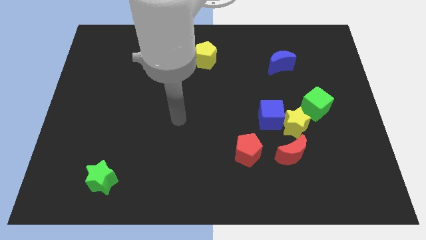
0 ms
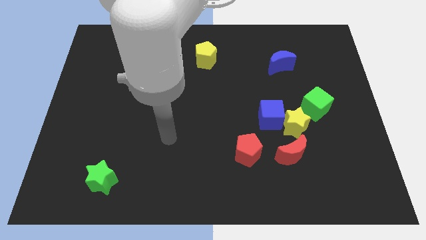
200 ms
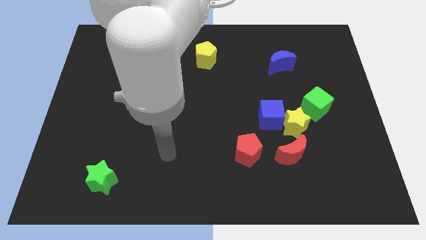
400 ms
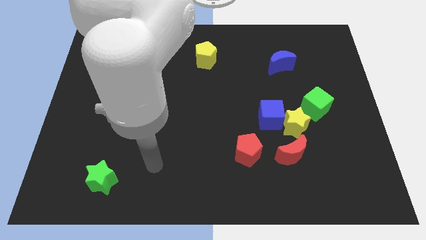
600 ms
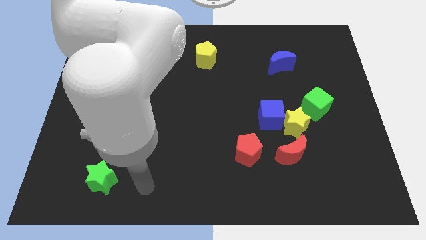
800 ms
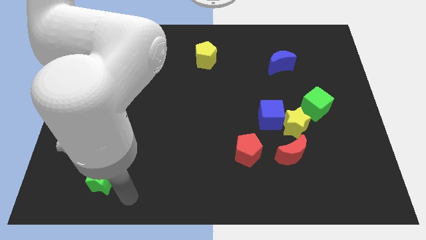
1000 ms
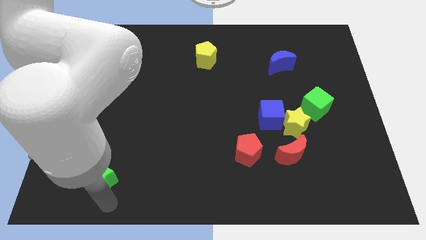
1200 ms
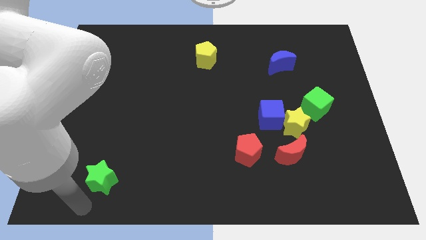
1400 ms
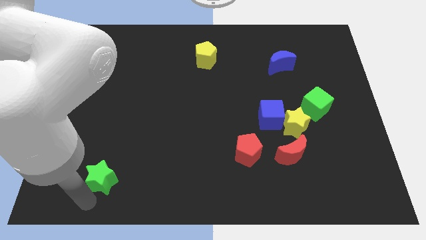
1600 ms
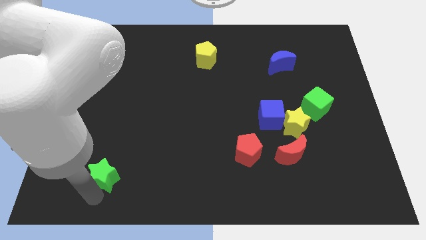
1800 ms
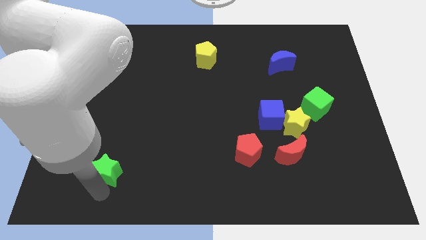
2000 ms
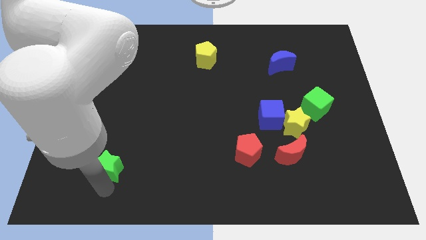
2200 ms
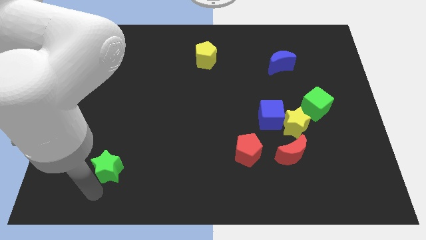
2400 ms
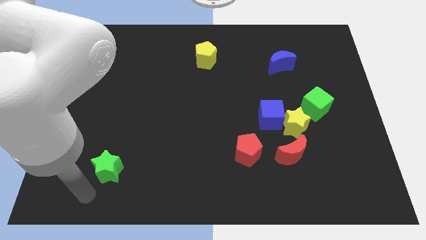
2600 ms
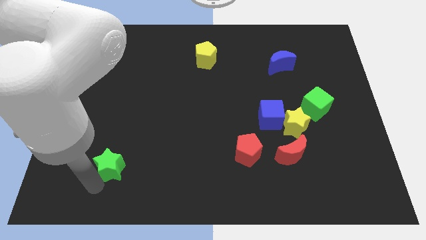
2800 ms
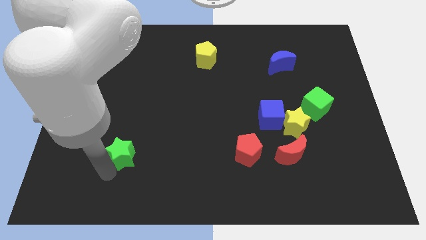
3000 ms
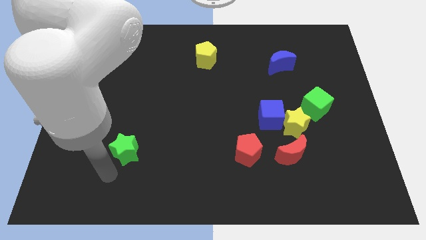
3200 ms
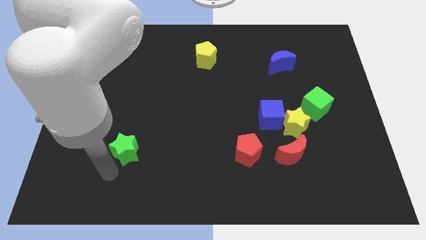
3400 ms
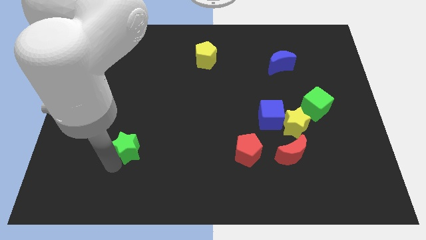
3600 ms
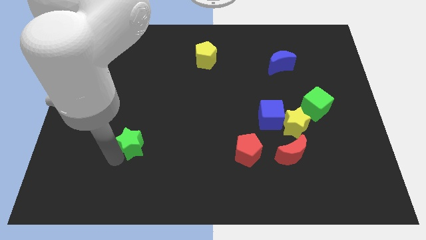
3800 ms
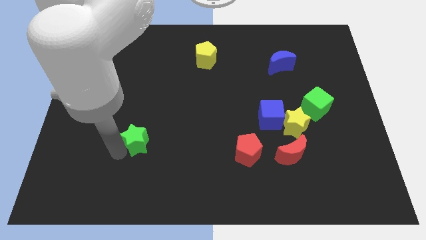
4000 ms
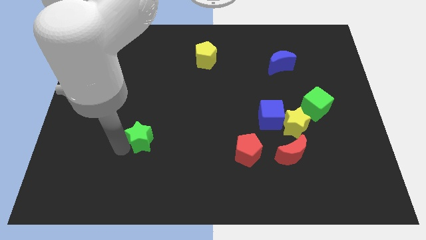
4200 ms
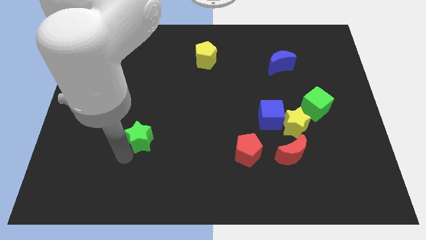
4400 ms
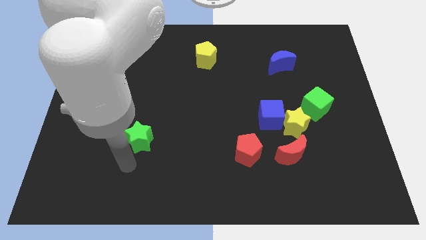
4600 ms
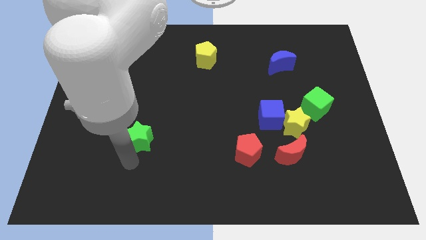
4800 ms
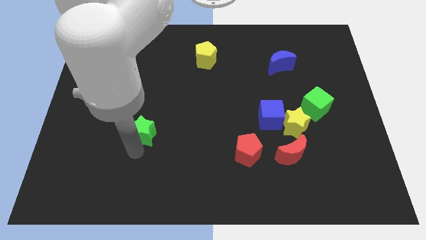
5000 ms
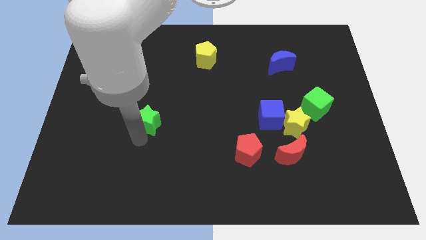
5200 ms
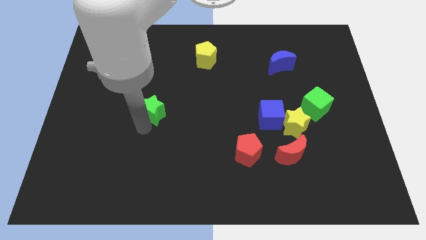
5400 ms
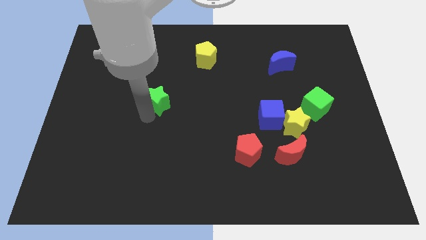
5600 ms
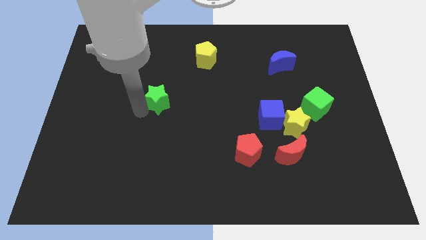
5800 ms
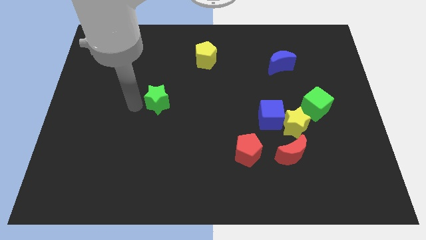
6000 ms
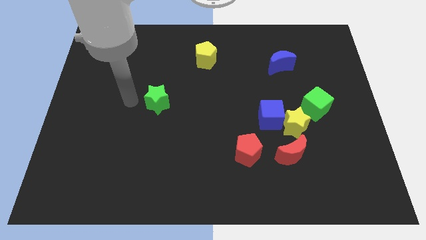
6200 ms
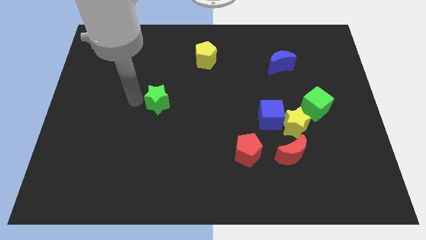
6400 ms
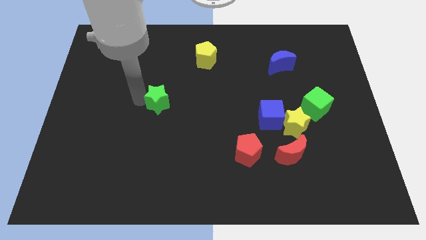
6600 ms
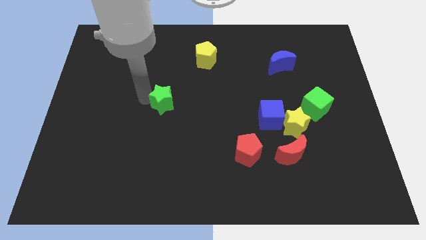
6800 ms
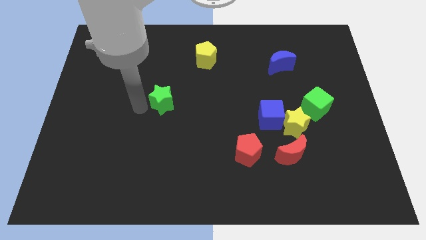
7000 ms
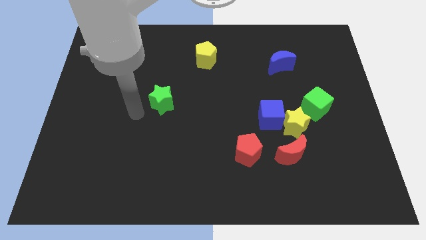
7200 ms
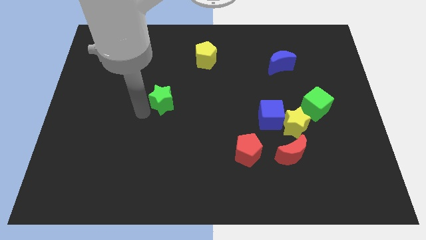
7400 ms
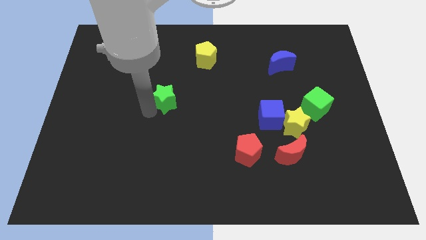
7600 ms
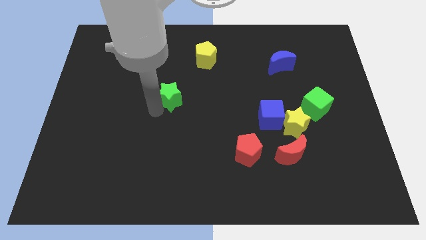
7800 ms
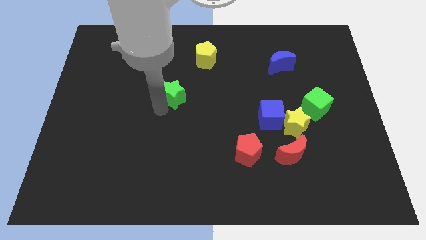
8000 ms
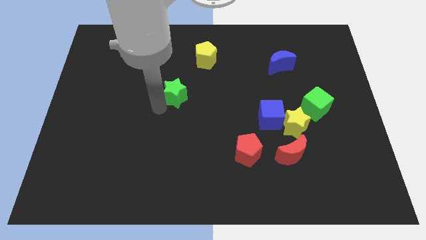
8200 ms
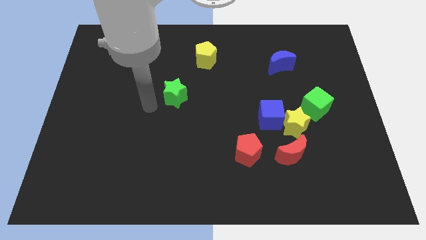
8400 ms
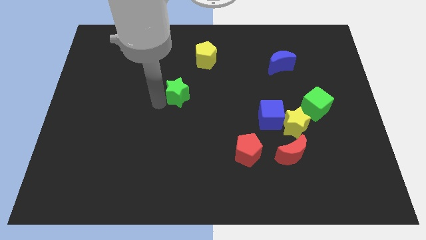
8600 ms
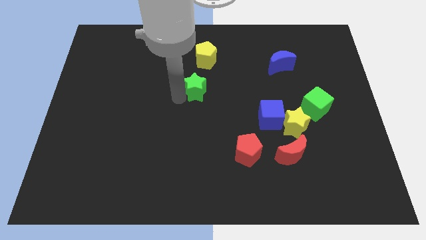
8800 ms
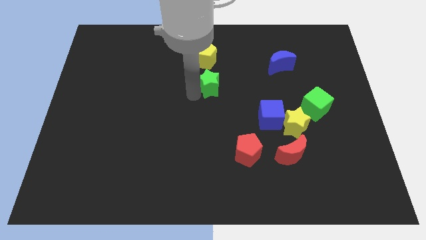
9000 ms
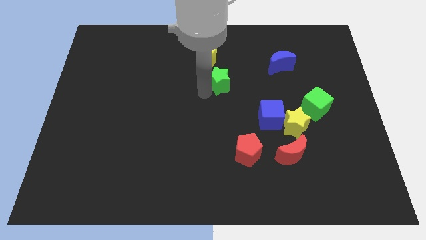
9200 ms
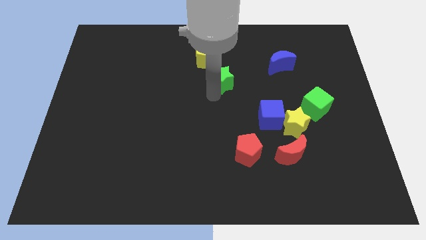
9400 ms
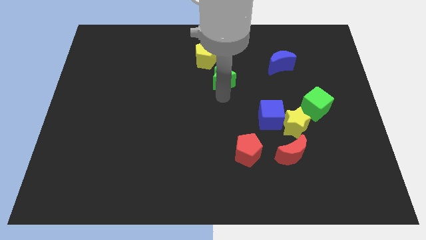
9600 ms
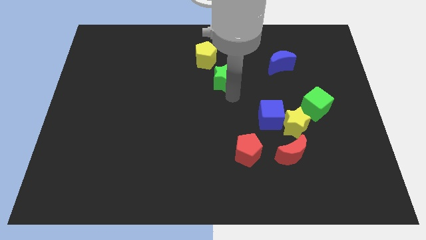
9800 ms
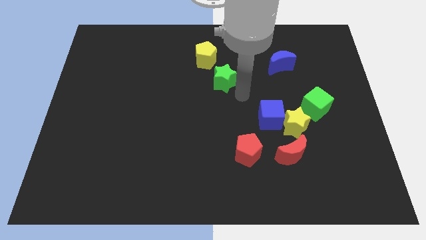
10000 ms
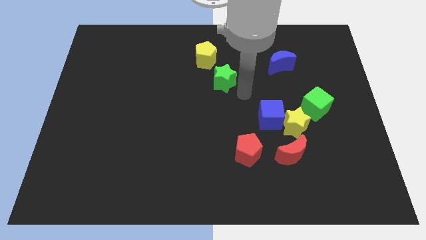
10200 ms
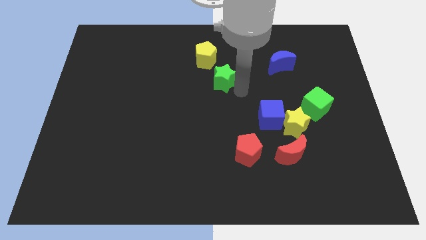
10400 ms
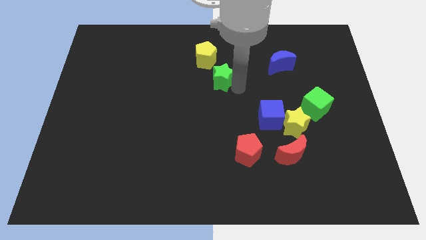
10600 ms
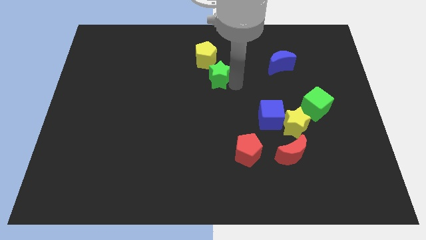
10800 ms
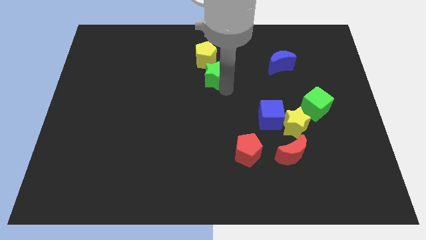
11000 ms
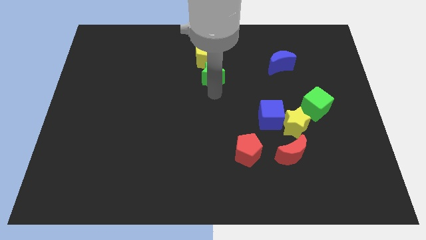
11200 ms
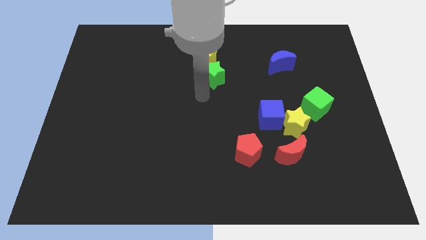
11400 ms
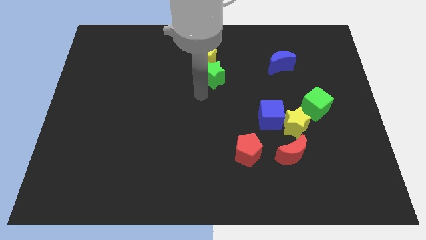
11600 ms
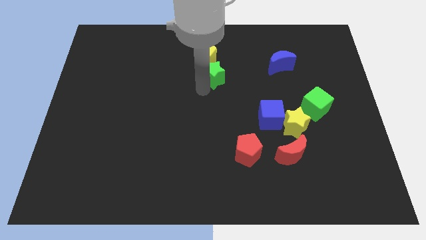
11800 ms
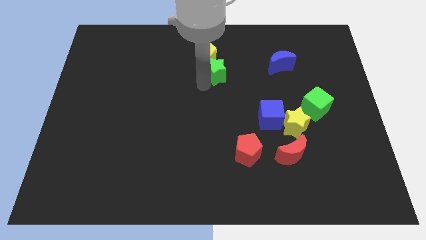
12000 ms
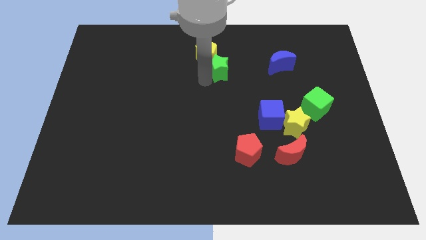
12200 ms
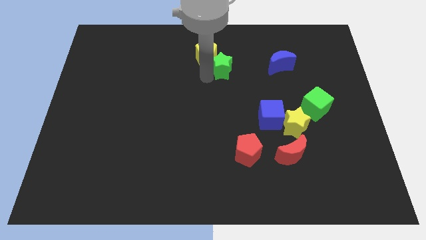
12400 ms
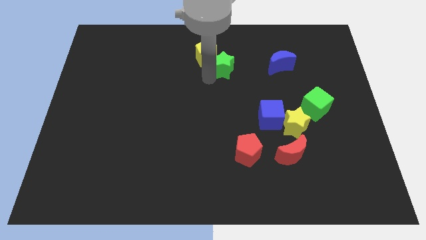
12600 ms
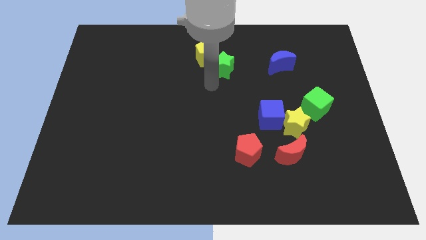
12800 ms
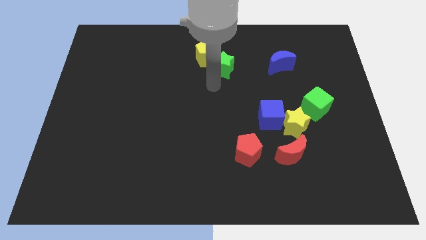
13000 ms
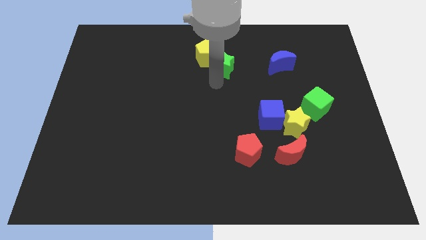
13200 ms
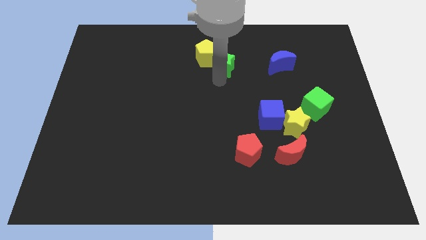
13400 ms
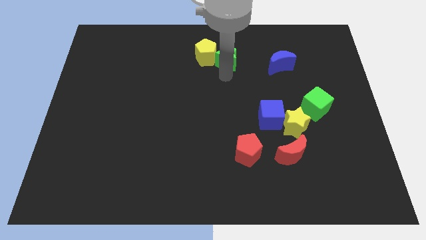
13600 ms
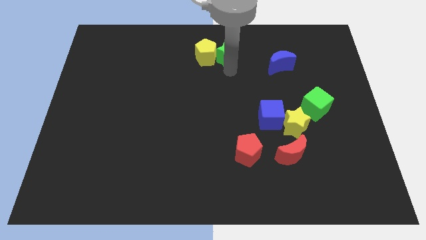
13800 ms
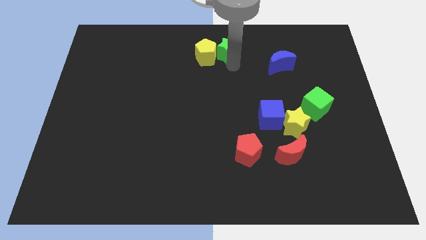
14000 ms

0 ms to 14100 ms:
move the green star to the towards your base
